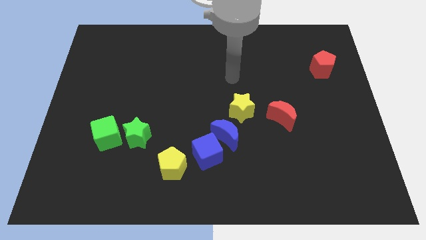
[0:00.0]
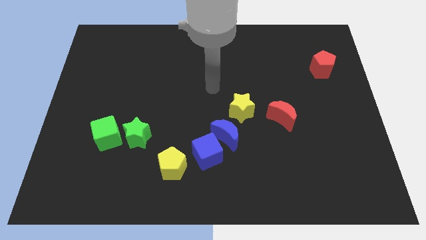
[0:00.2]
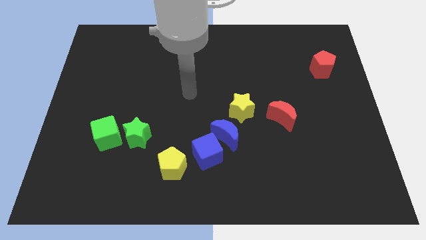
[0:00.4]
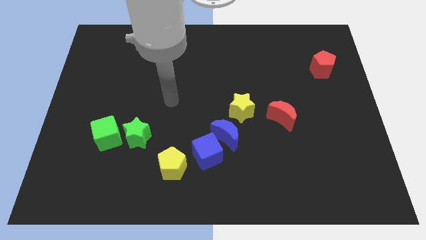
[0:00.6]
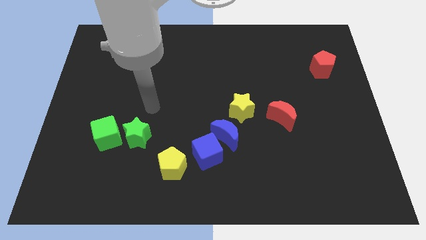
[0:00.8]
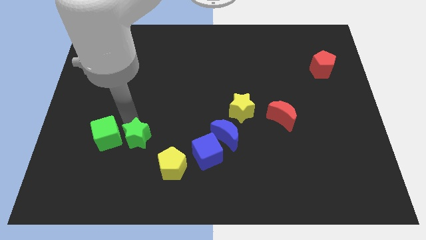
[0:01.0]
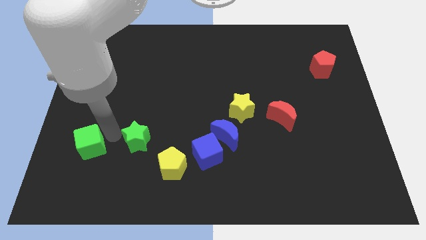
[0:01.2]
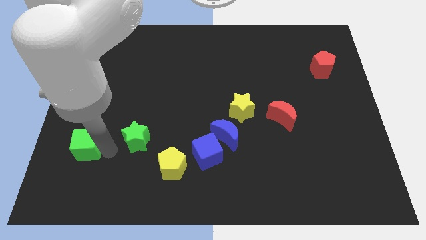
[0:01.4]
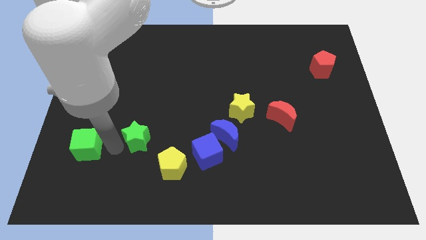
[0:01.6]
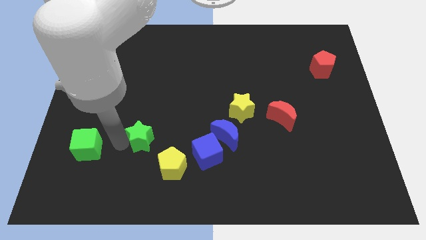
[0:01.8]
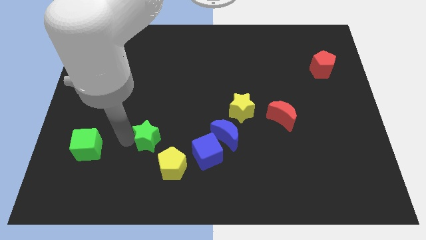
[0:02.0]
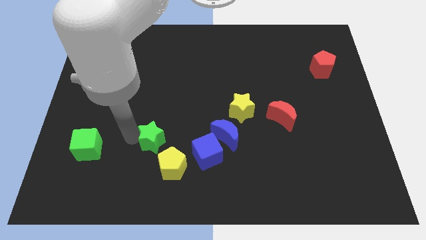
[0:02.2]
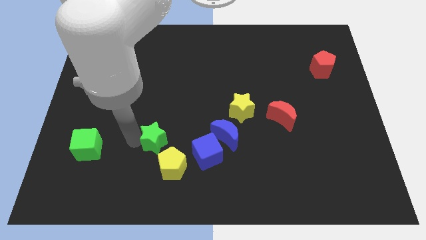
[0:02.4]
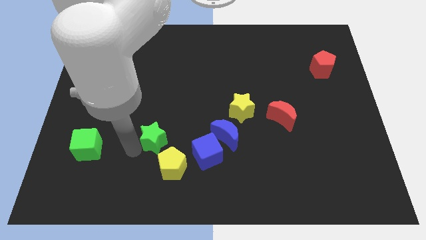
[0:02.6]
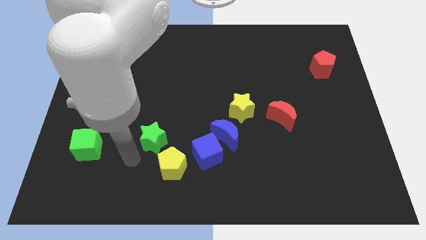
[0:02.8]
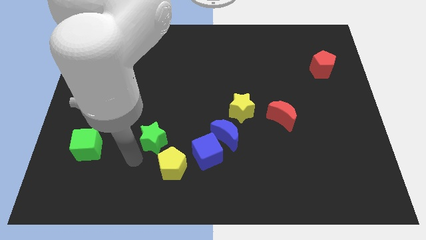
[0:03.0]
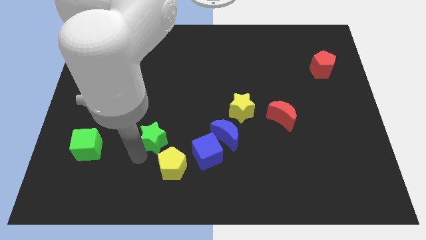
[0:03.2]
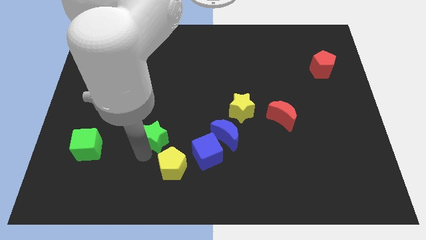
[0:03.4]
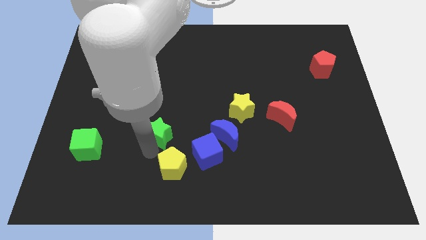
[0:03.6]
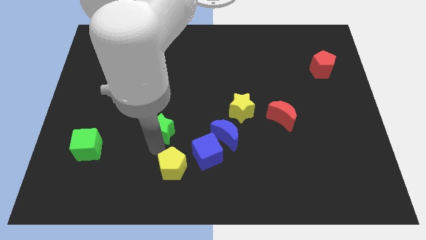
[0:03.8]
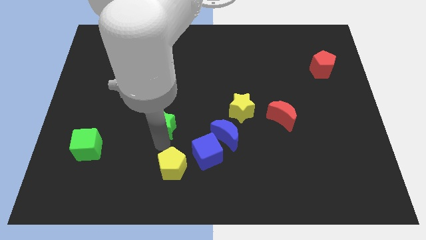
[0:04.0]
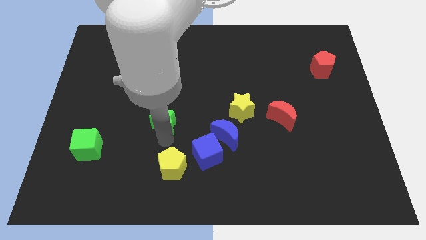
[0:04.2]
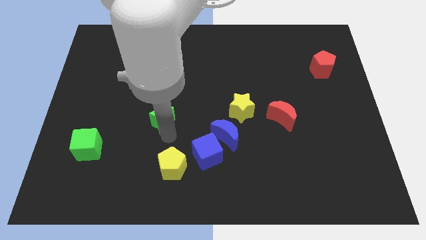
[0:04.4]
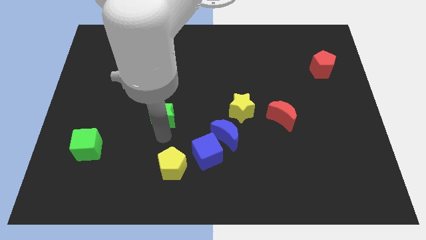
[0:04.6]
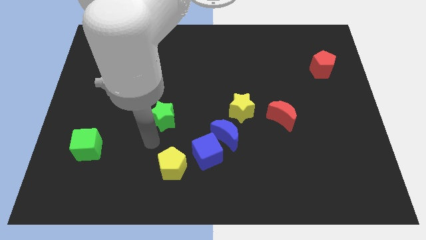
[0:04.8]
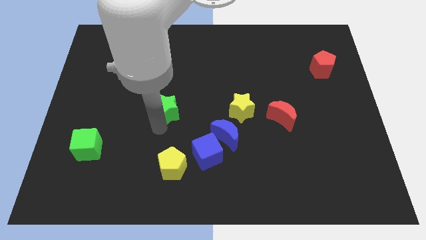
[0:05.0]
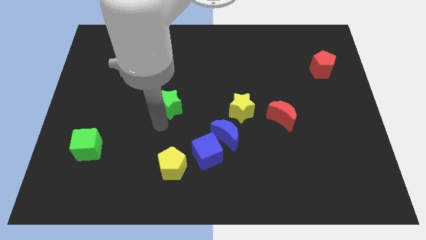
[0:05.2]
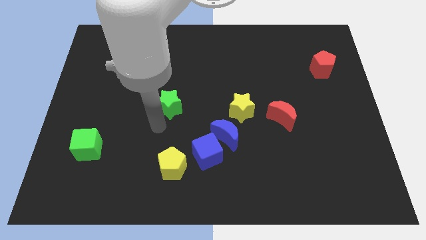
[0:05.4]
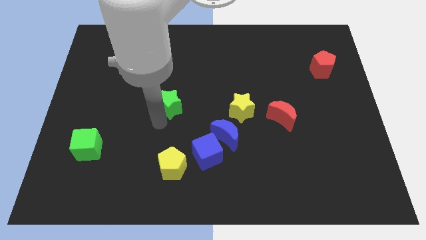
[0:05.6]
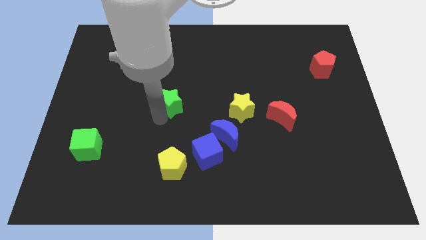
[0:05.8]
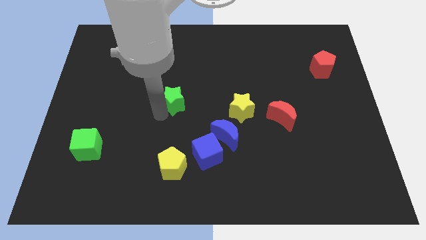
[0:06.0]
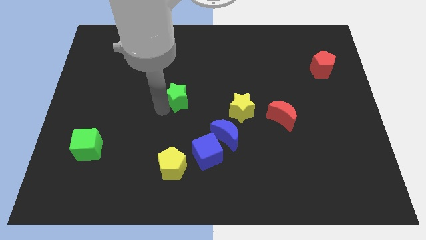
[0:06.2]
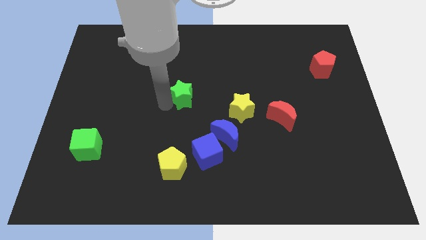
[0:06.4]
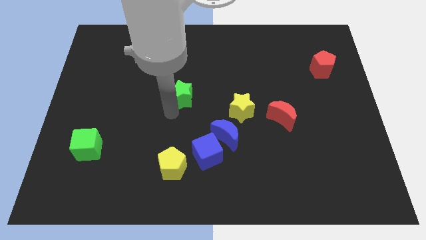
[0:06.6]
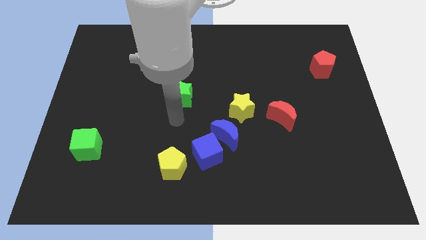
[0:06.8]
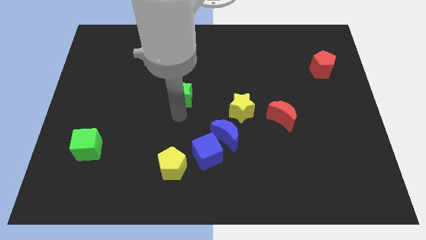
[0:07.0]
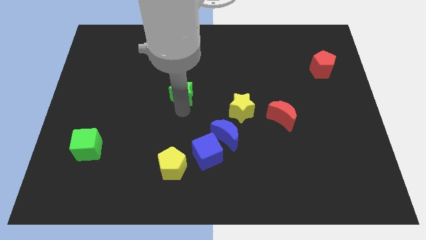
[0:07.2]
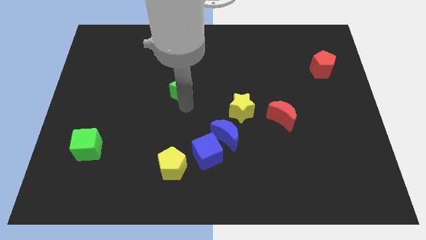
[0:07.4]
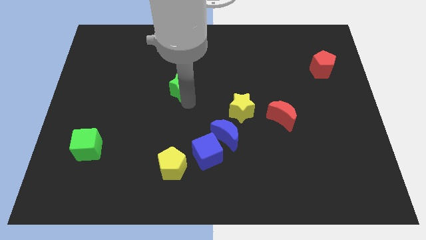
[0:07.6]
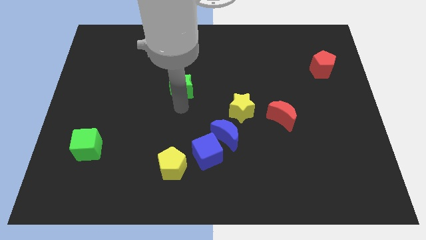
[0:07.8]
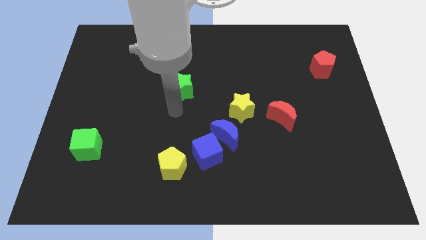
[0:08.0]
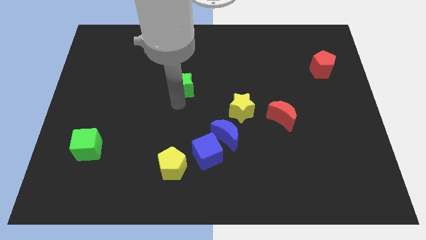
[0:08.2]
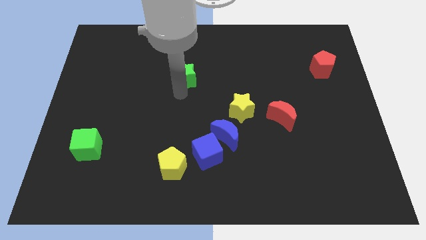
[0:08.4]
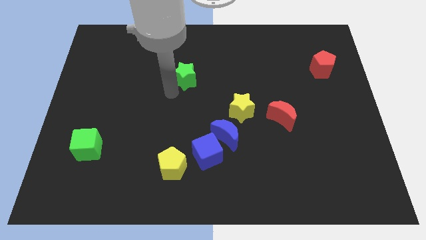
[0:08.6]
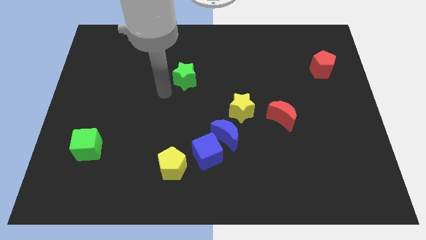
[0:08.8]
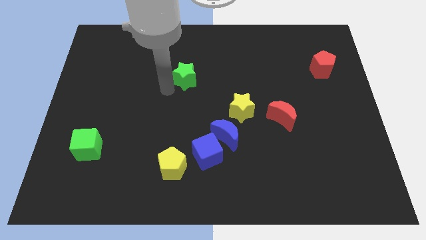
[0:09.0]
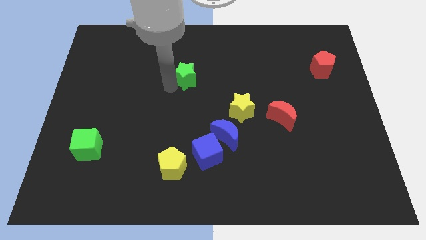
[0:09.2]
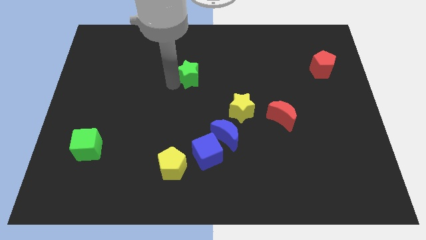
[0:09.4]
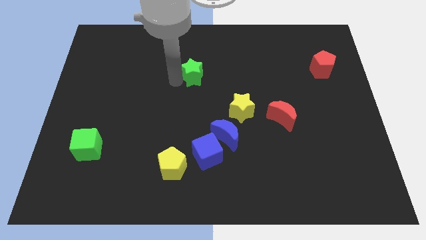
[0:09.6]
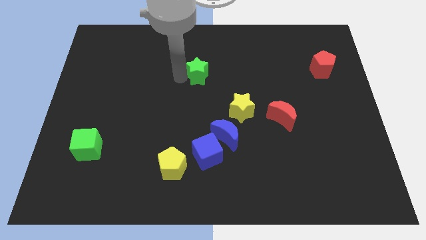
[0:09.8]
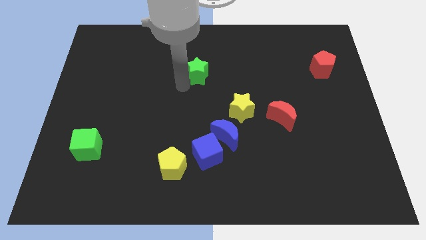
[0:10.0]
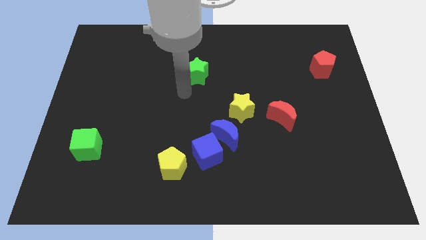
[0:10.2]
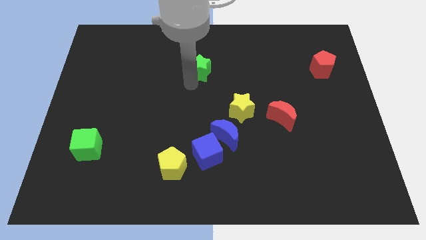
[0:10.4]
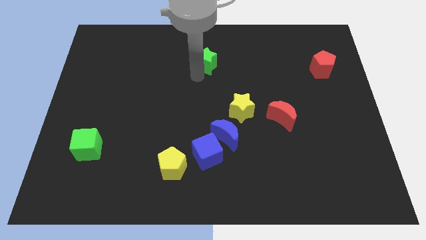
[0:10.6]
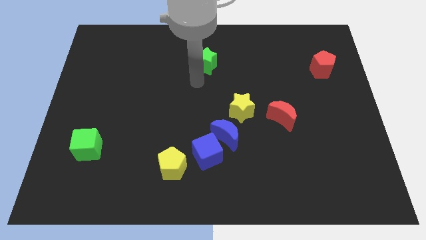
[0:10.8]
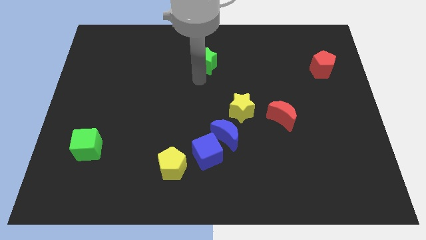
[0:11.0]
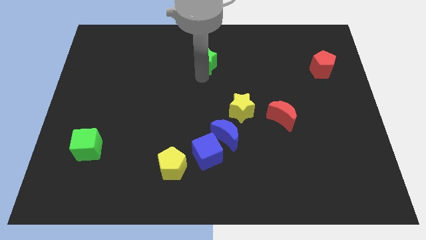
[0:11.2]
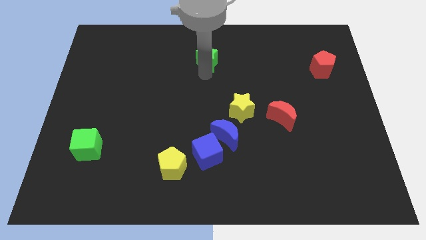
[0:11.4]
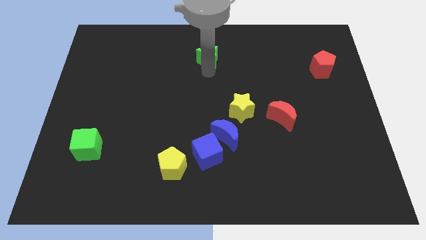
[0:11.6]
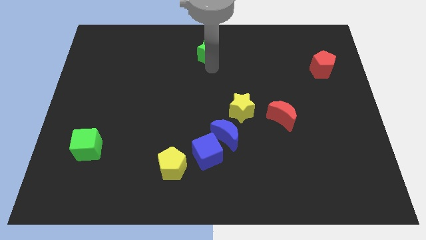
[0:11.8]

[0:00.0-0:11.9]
put the green star to the top side
